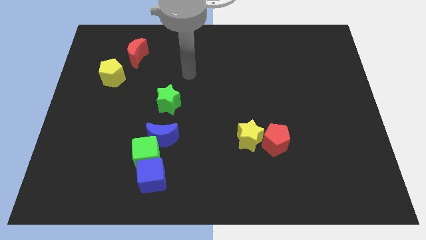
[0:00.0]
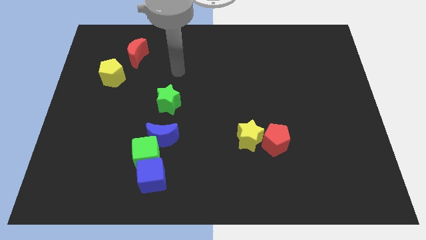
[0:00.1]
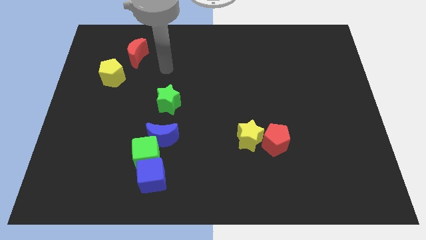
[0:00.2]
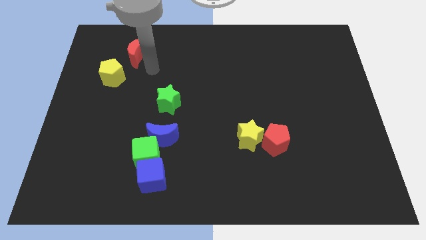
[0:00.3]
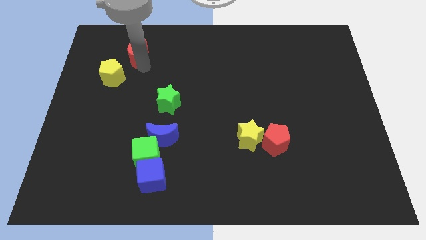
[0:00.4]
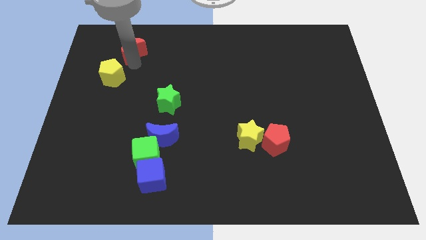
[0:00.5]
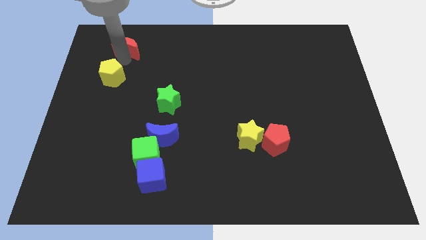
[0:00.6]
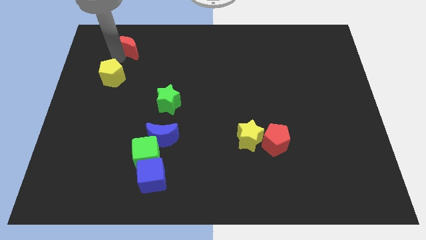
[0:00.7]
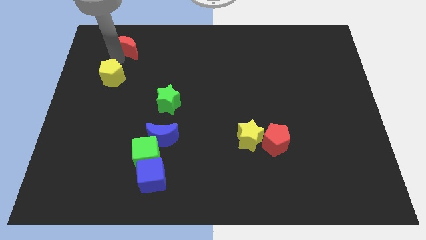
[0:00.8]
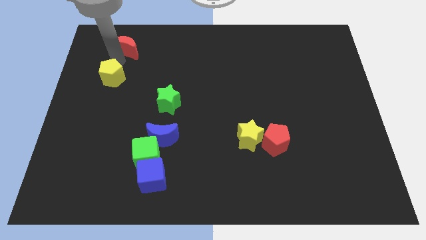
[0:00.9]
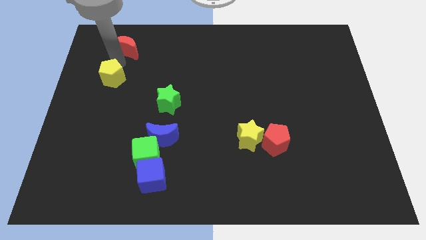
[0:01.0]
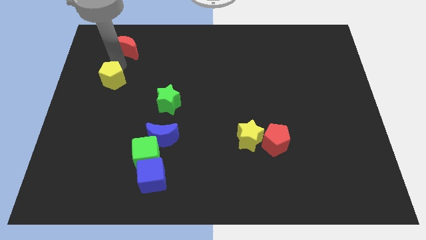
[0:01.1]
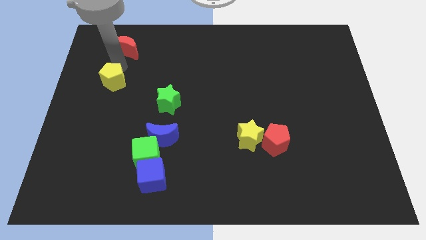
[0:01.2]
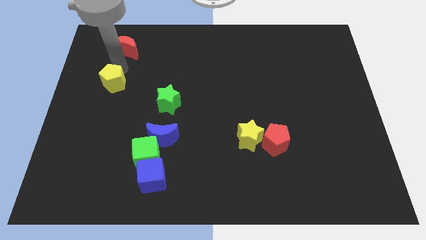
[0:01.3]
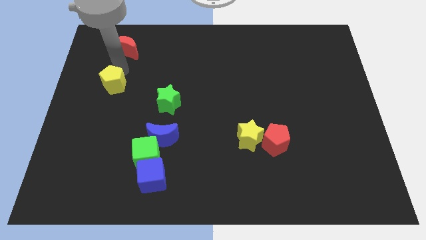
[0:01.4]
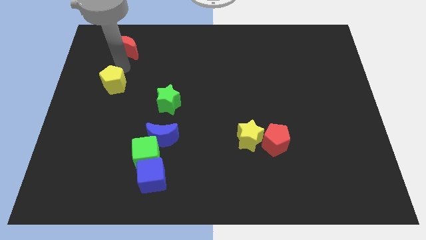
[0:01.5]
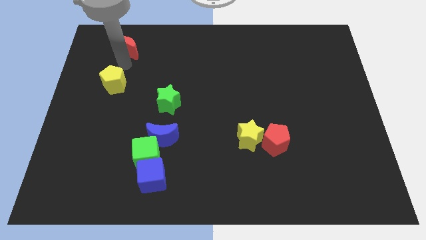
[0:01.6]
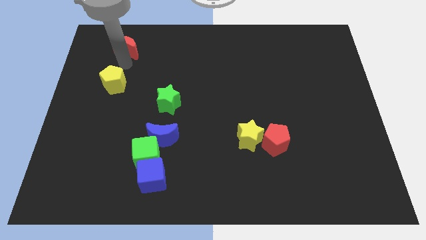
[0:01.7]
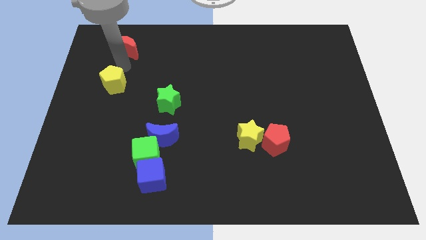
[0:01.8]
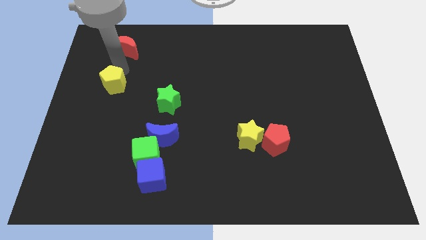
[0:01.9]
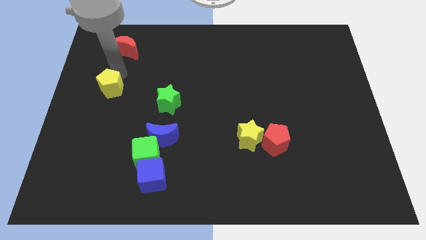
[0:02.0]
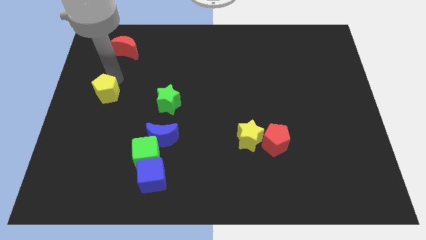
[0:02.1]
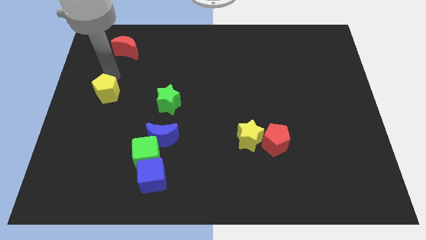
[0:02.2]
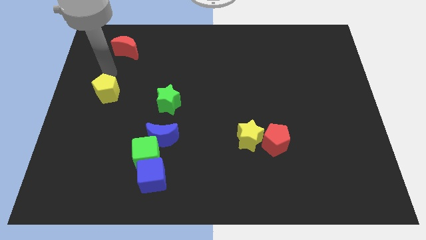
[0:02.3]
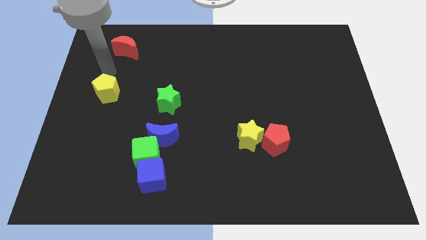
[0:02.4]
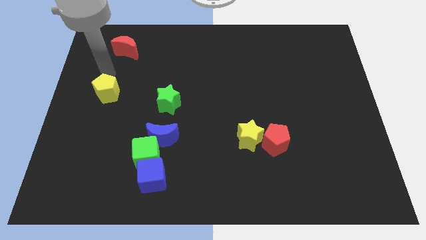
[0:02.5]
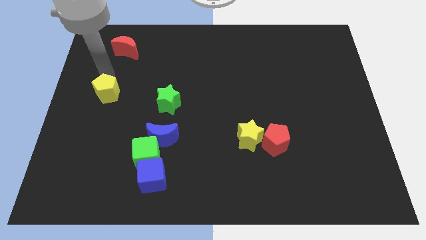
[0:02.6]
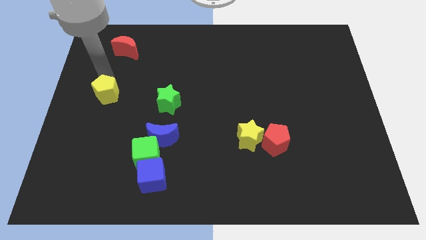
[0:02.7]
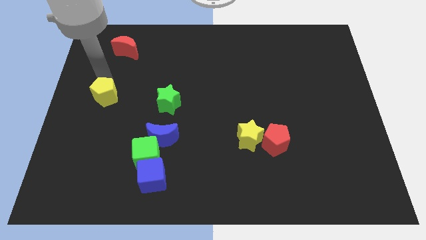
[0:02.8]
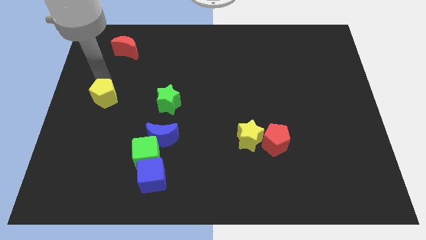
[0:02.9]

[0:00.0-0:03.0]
slightly move the yellow pentagon downwards

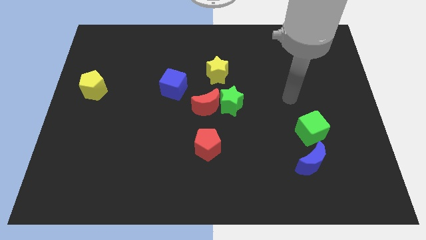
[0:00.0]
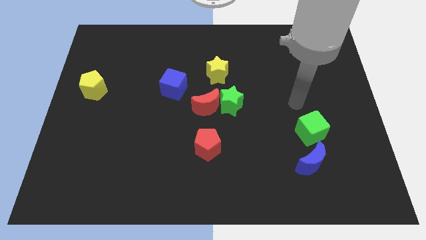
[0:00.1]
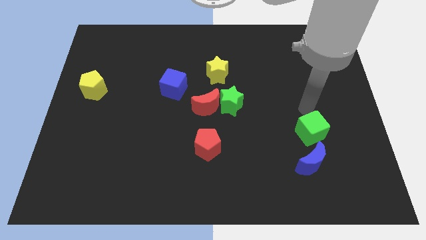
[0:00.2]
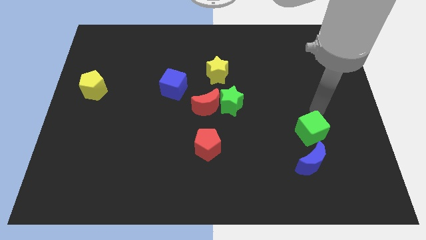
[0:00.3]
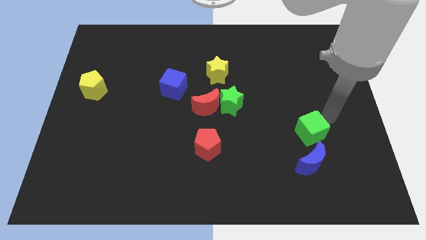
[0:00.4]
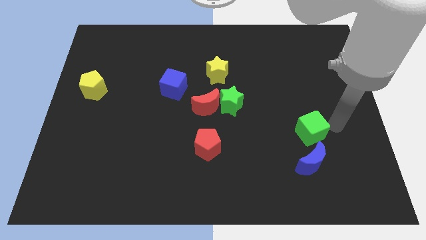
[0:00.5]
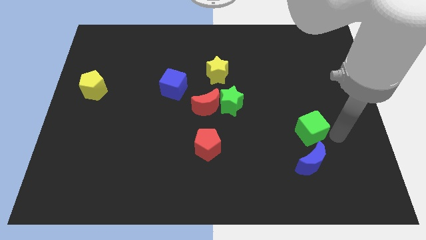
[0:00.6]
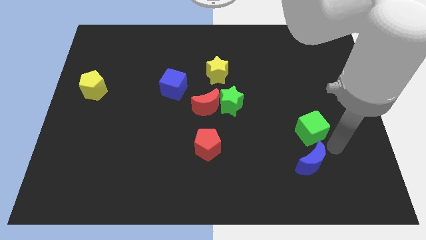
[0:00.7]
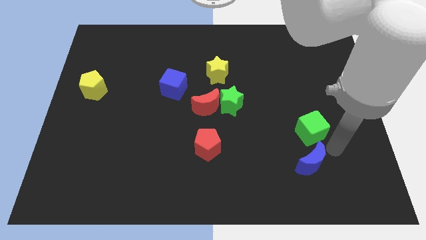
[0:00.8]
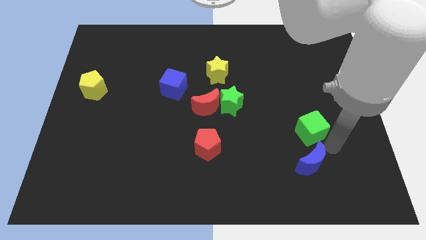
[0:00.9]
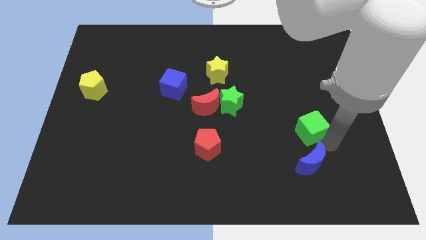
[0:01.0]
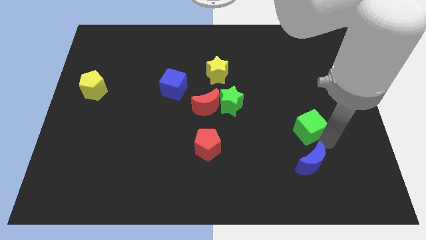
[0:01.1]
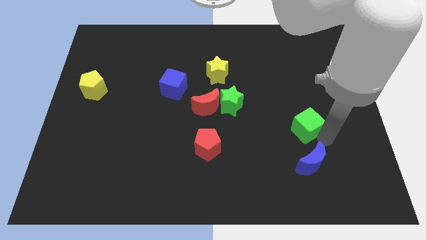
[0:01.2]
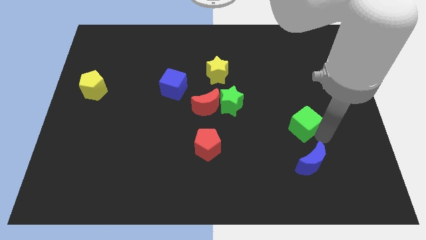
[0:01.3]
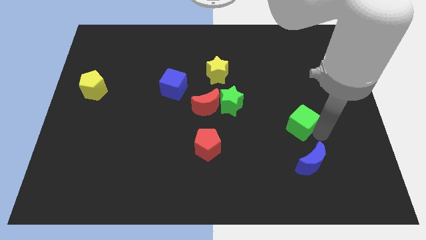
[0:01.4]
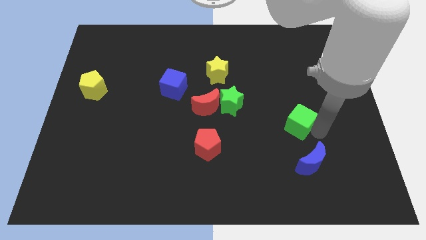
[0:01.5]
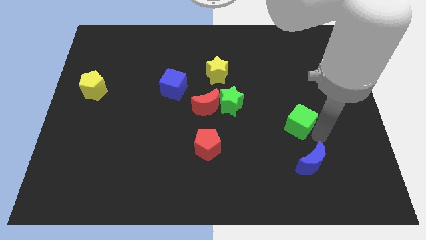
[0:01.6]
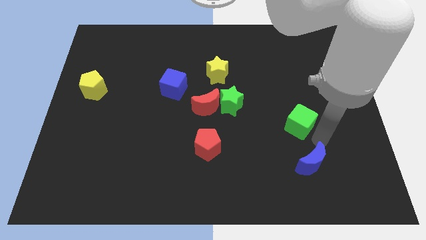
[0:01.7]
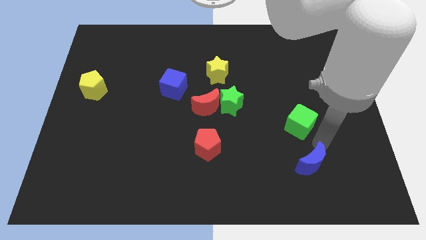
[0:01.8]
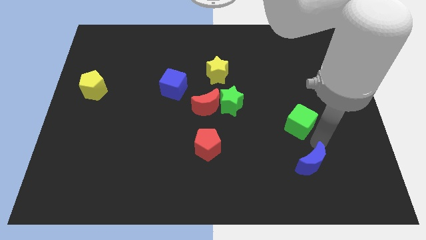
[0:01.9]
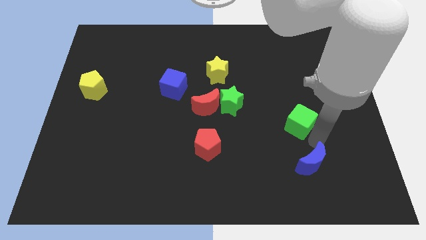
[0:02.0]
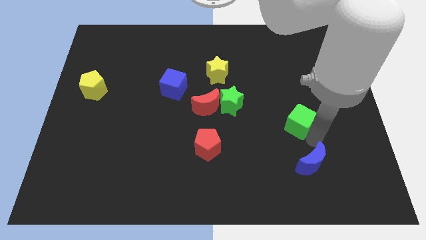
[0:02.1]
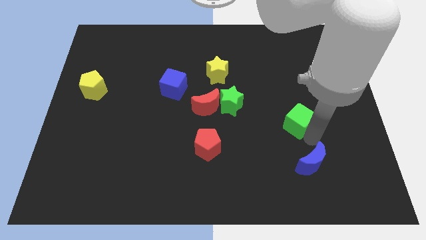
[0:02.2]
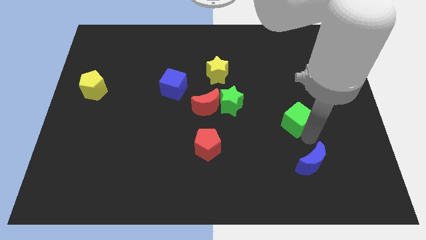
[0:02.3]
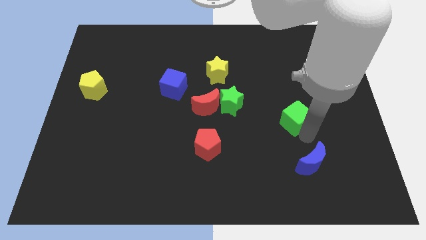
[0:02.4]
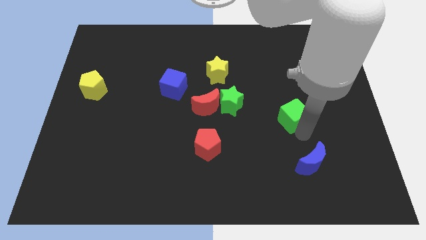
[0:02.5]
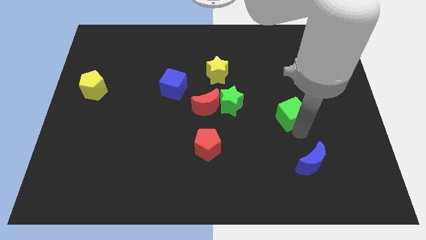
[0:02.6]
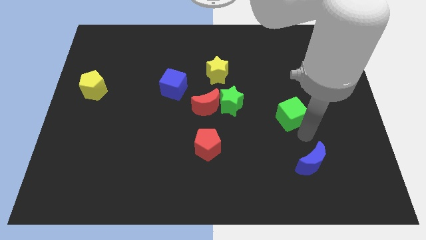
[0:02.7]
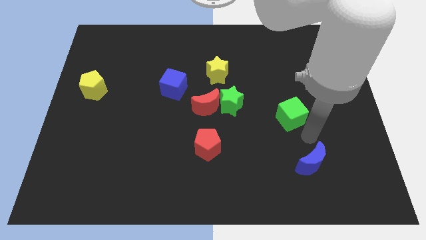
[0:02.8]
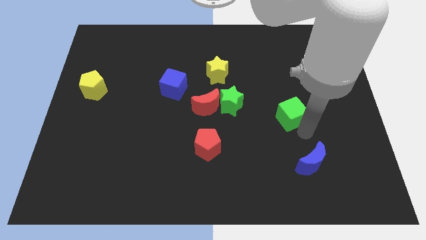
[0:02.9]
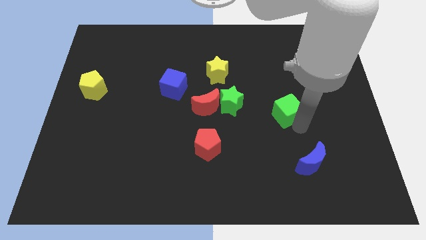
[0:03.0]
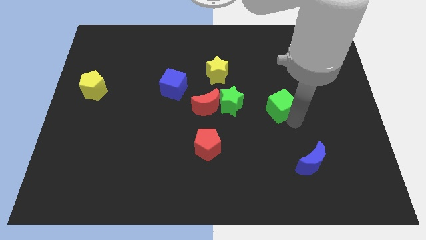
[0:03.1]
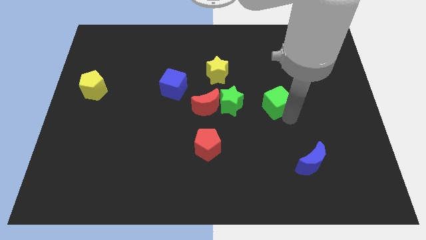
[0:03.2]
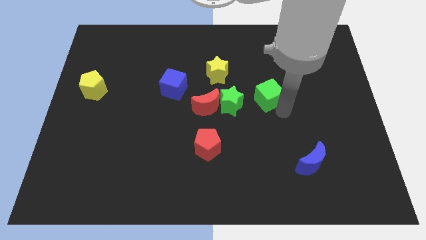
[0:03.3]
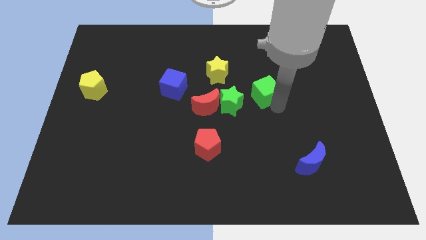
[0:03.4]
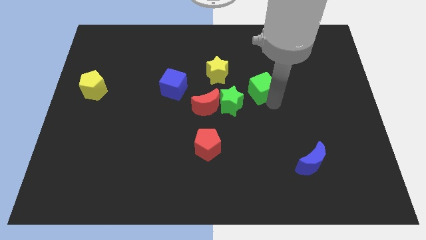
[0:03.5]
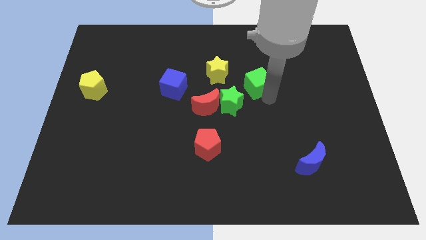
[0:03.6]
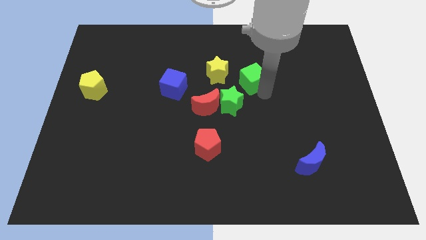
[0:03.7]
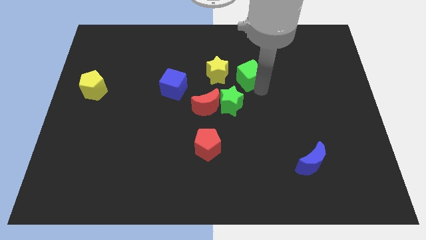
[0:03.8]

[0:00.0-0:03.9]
move the green cube upwards and to the left

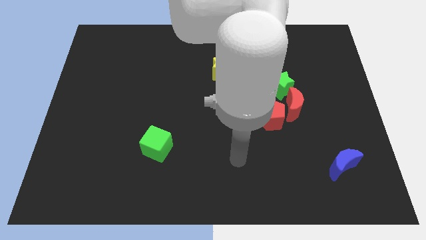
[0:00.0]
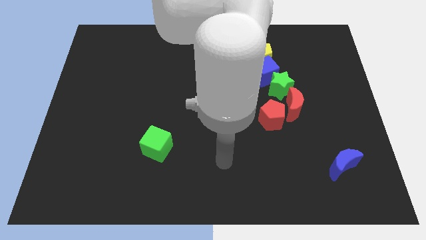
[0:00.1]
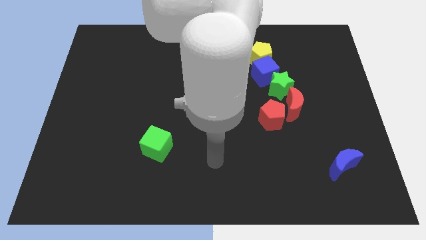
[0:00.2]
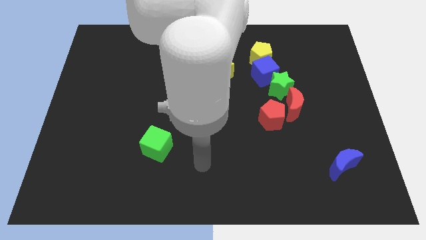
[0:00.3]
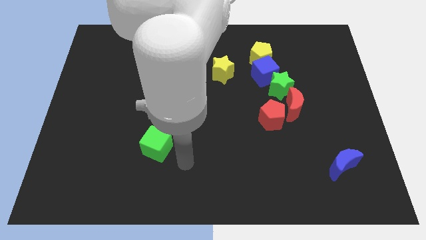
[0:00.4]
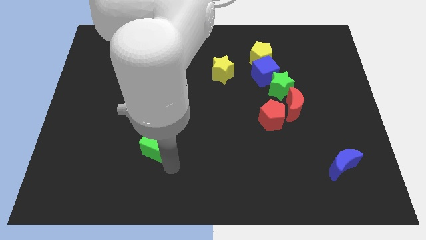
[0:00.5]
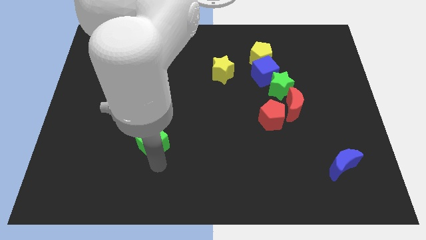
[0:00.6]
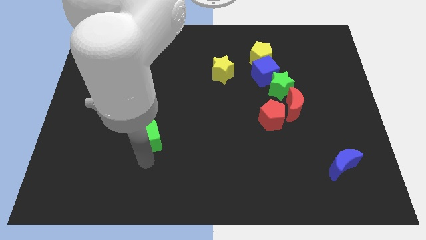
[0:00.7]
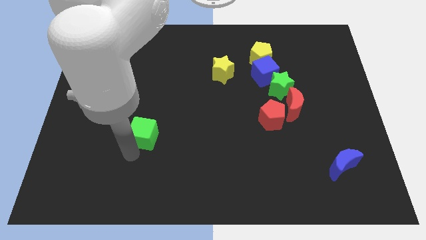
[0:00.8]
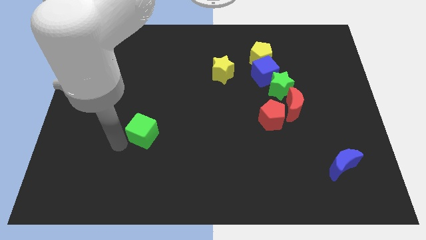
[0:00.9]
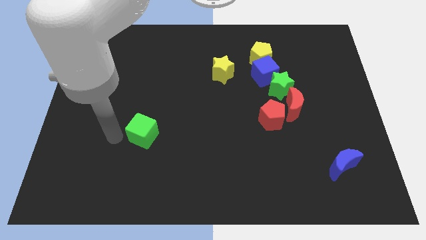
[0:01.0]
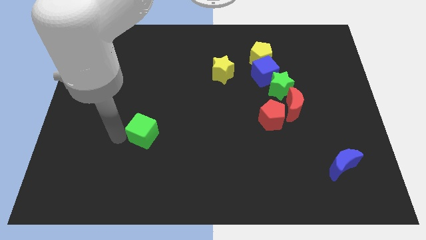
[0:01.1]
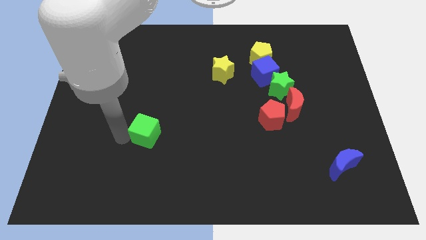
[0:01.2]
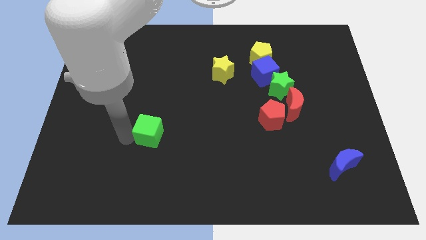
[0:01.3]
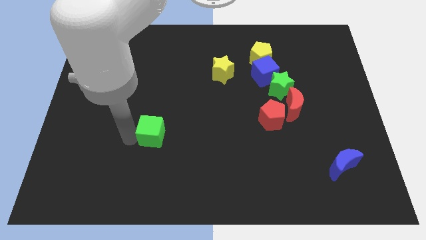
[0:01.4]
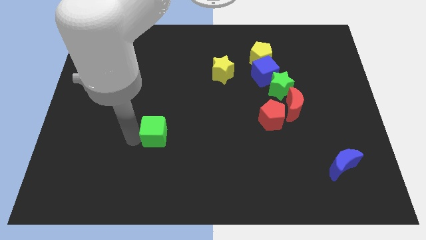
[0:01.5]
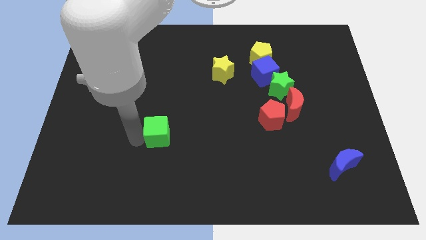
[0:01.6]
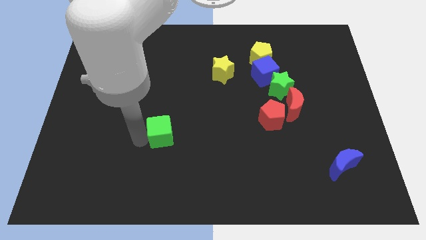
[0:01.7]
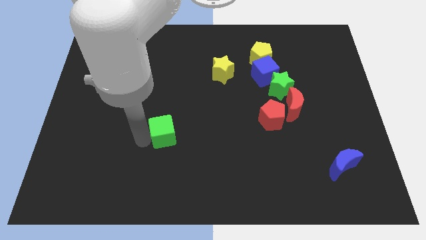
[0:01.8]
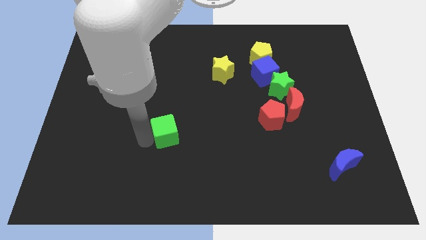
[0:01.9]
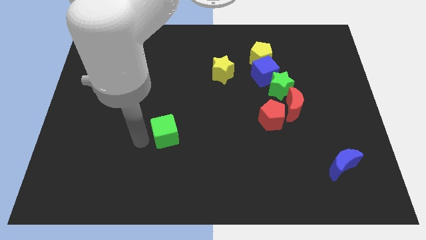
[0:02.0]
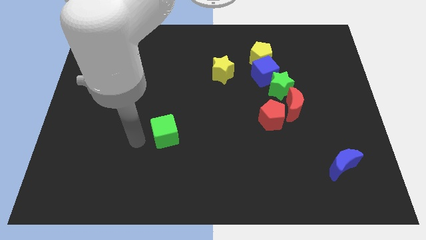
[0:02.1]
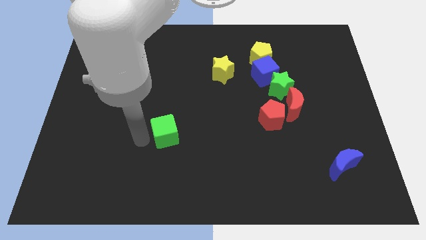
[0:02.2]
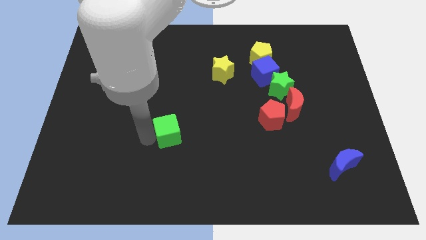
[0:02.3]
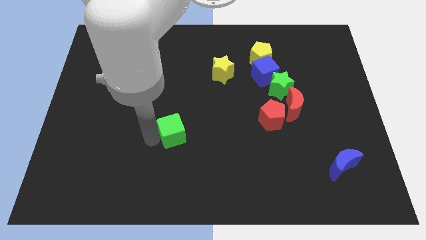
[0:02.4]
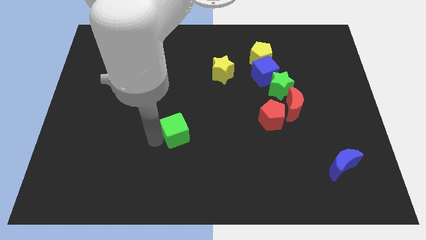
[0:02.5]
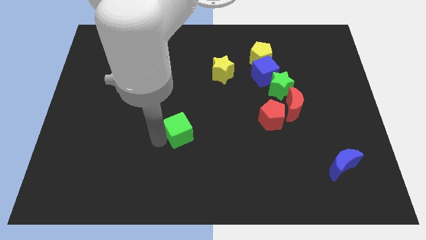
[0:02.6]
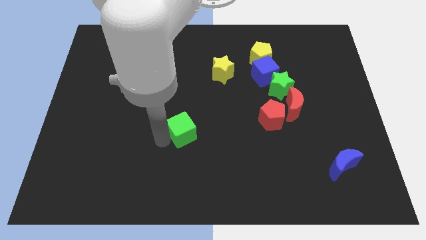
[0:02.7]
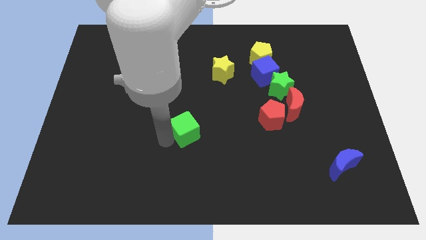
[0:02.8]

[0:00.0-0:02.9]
push the green cube a little up and right diagonally
